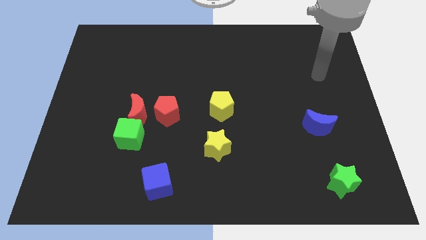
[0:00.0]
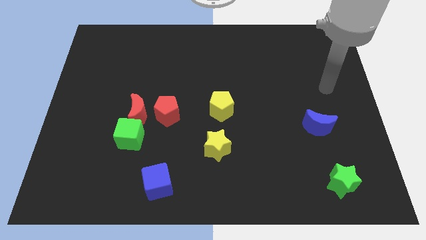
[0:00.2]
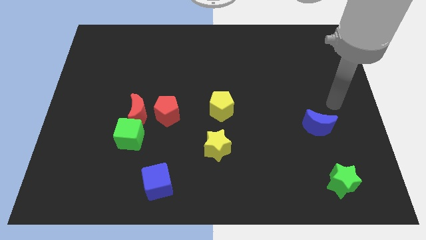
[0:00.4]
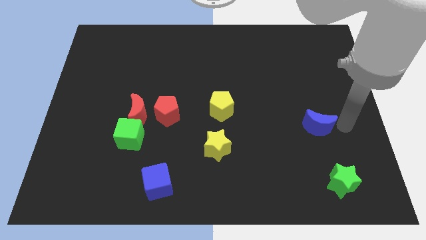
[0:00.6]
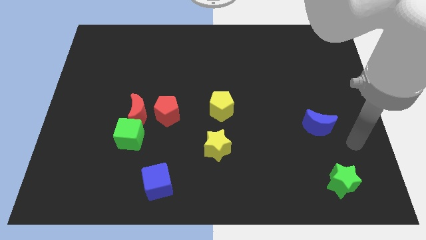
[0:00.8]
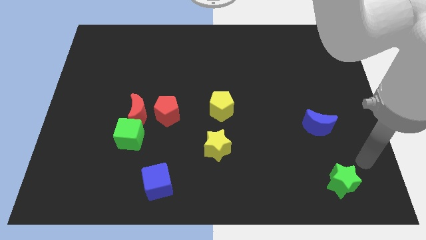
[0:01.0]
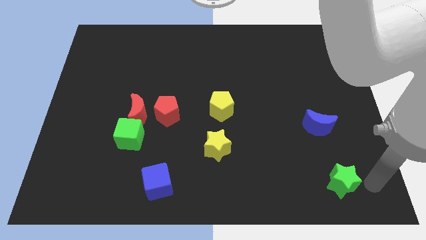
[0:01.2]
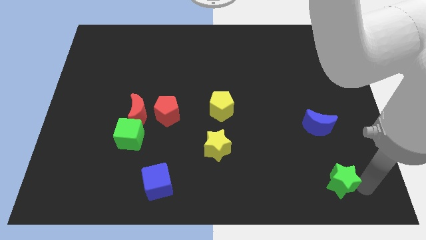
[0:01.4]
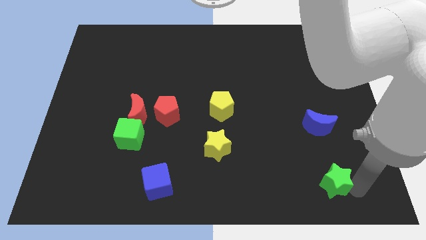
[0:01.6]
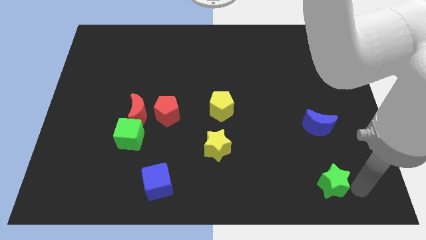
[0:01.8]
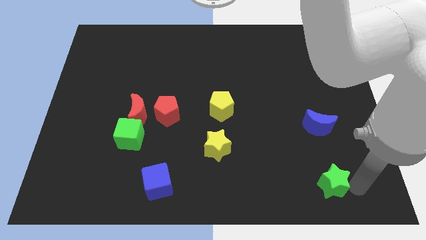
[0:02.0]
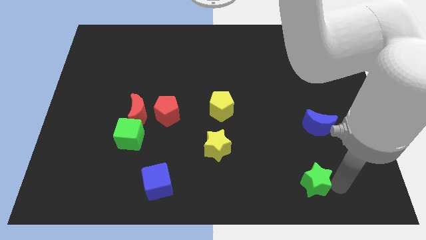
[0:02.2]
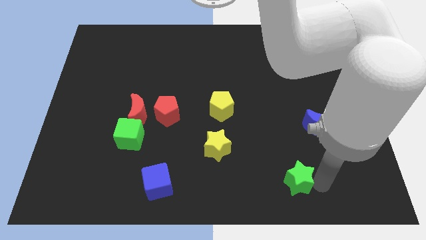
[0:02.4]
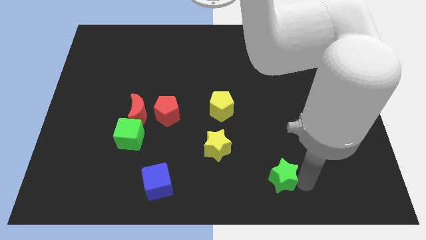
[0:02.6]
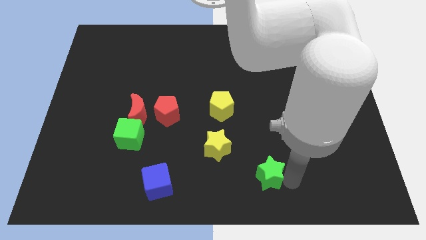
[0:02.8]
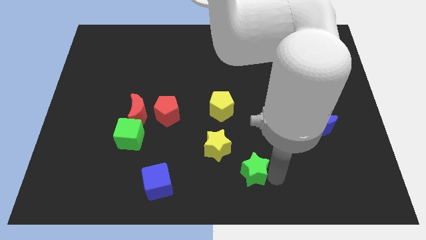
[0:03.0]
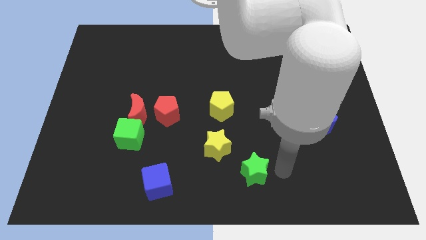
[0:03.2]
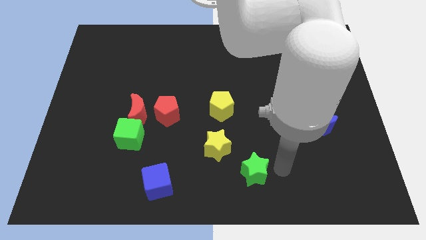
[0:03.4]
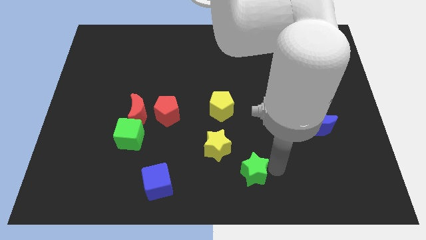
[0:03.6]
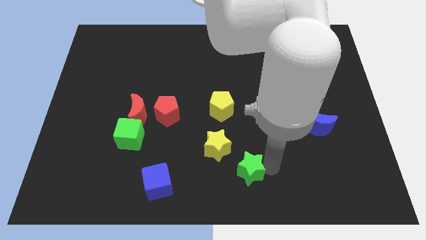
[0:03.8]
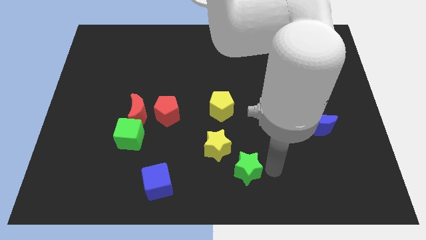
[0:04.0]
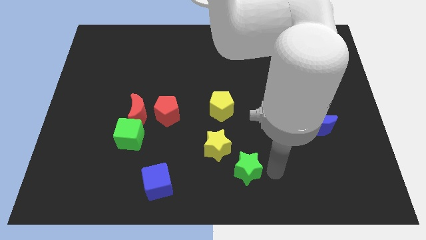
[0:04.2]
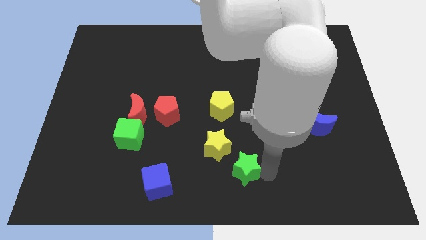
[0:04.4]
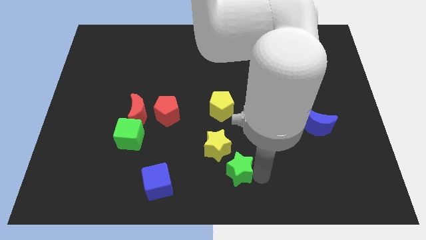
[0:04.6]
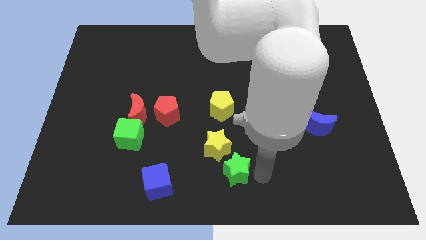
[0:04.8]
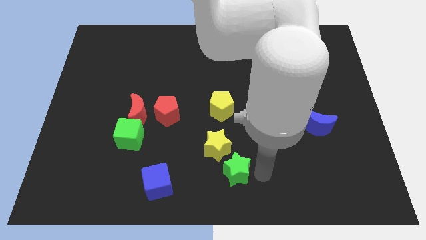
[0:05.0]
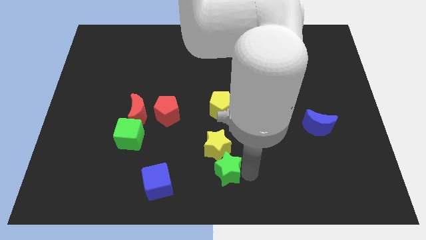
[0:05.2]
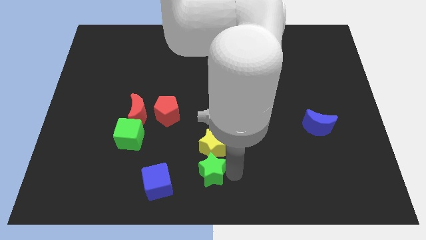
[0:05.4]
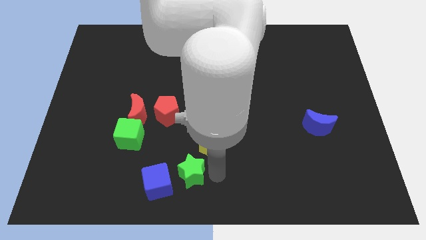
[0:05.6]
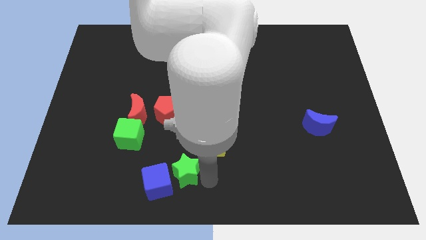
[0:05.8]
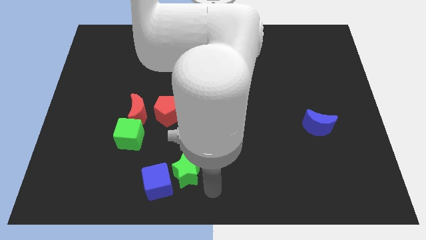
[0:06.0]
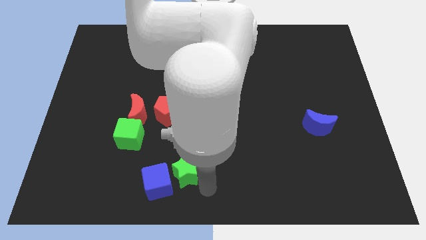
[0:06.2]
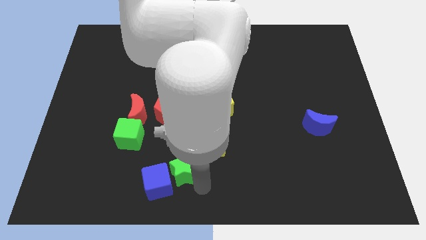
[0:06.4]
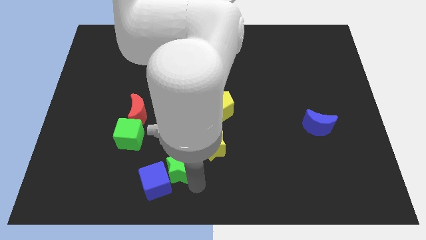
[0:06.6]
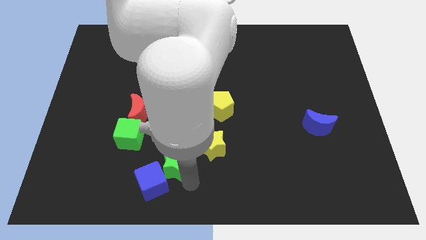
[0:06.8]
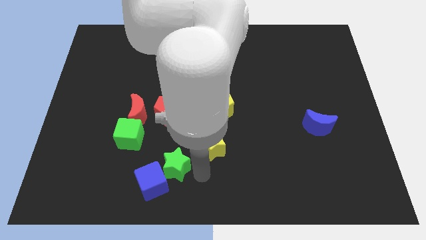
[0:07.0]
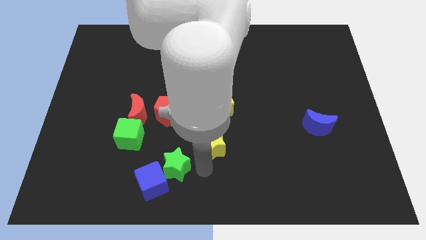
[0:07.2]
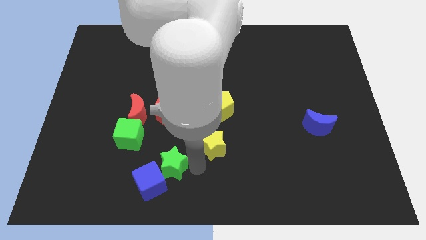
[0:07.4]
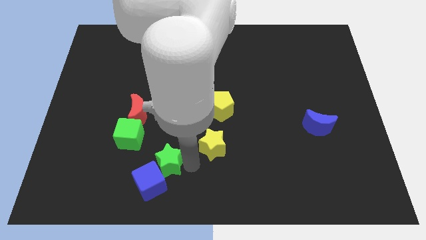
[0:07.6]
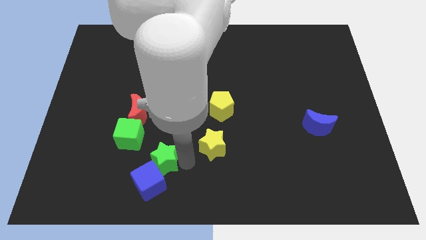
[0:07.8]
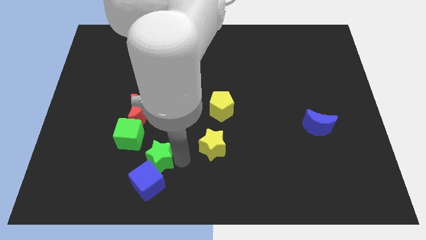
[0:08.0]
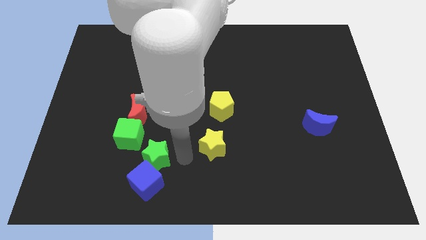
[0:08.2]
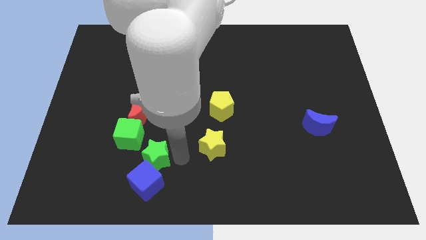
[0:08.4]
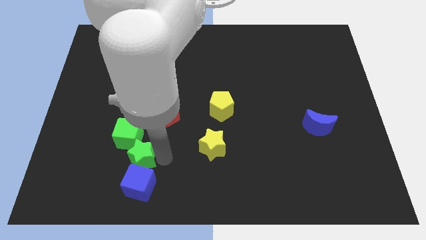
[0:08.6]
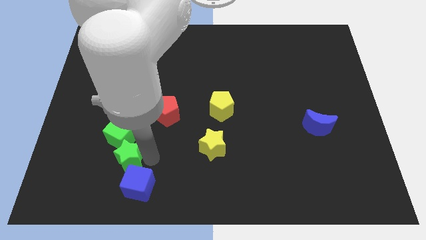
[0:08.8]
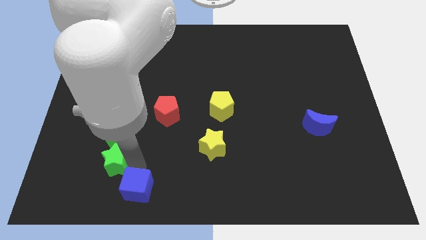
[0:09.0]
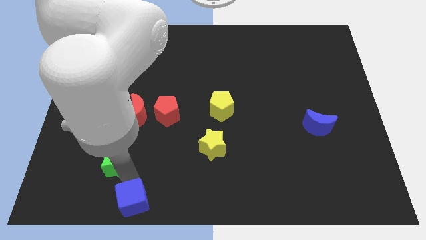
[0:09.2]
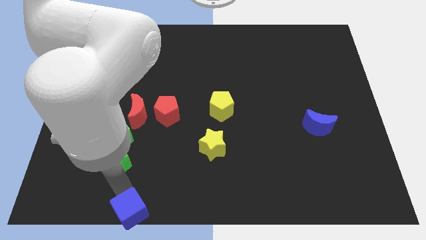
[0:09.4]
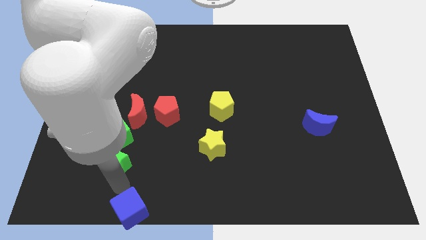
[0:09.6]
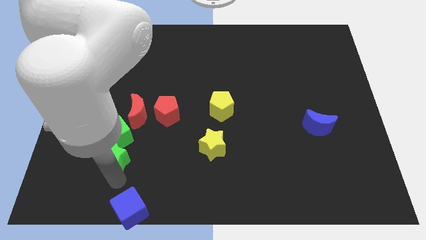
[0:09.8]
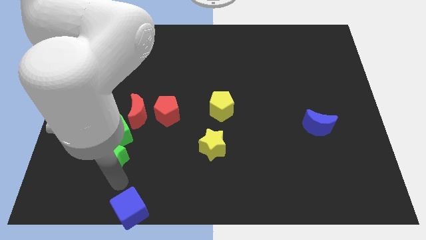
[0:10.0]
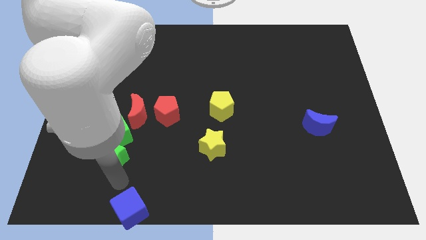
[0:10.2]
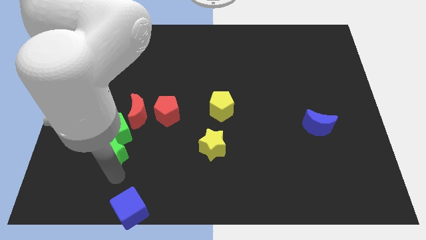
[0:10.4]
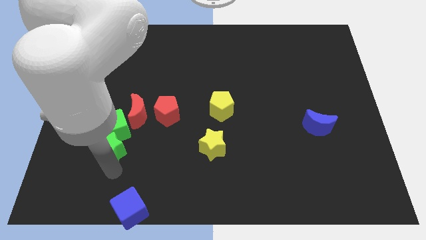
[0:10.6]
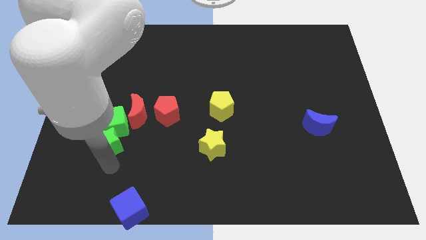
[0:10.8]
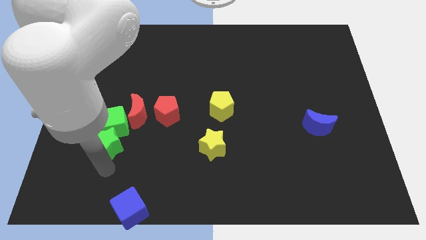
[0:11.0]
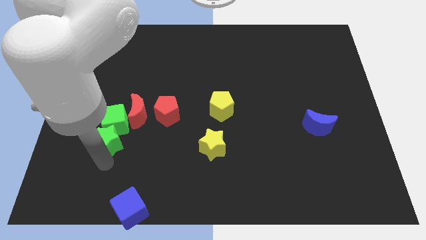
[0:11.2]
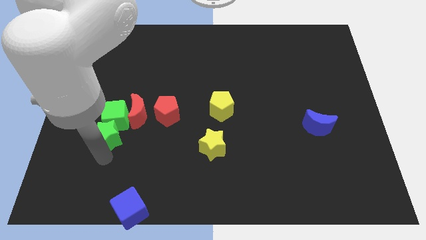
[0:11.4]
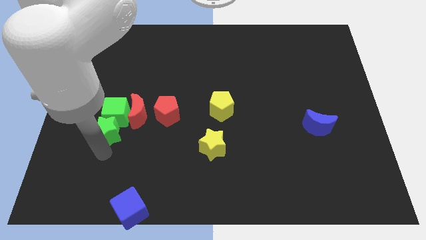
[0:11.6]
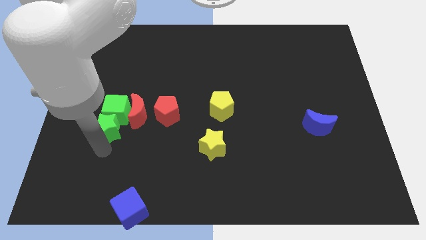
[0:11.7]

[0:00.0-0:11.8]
push the green star left of the red pentagon
